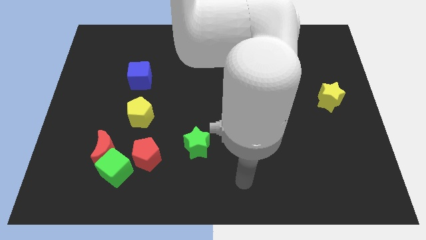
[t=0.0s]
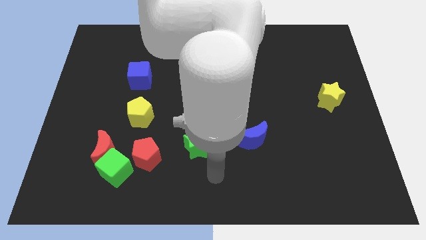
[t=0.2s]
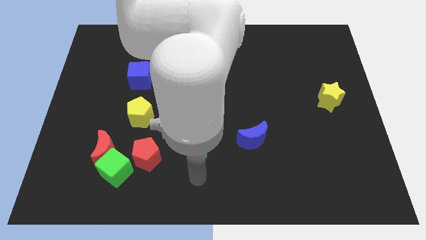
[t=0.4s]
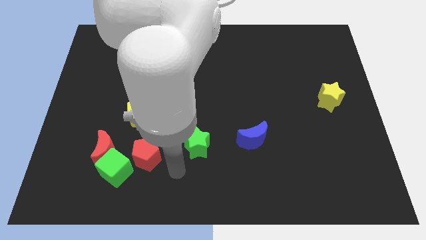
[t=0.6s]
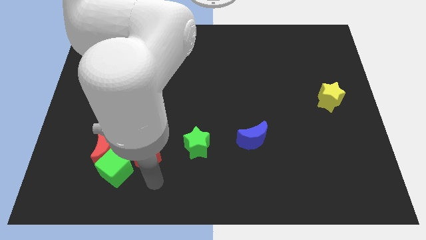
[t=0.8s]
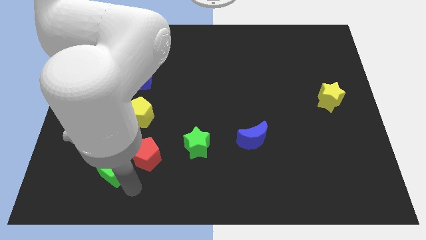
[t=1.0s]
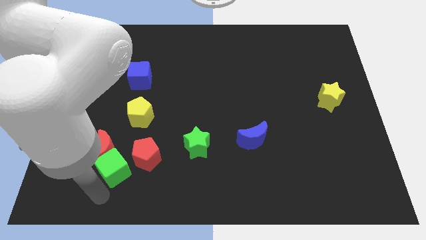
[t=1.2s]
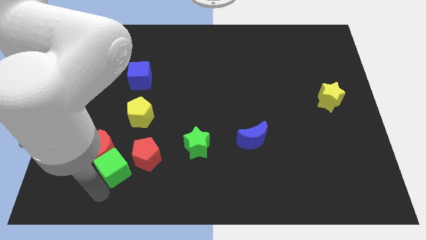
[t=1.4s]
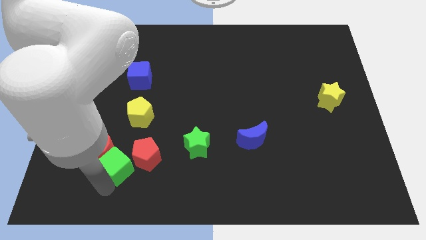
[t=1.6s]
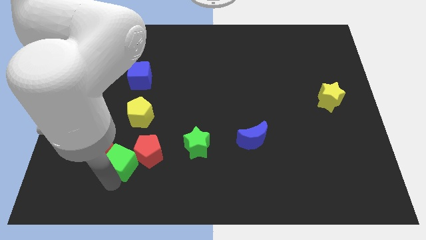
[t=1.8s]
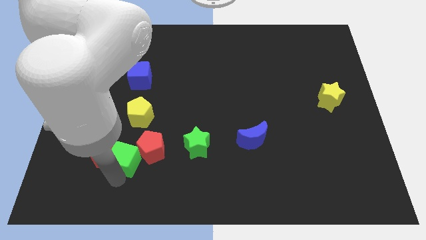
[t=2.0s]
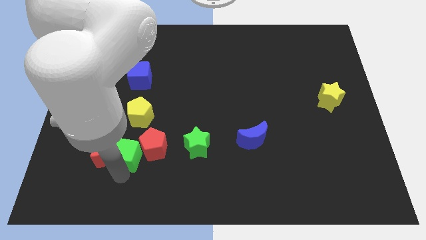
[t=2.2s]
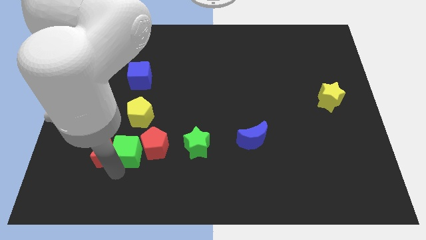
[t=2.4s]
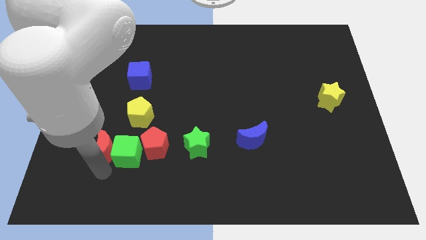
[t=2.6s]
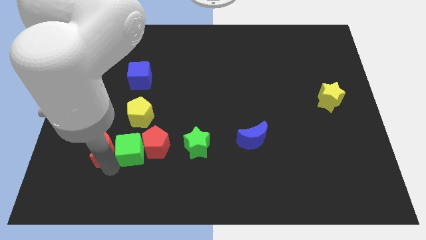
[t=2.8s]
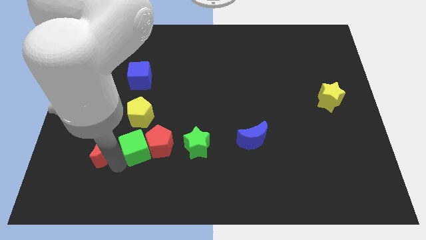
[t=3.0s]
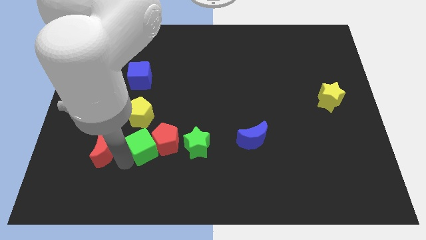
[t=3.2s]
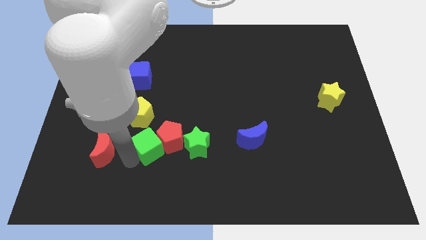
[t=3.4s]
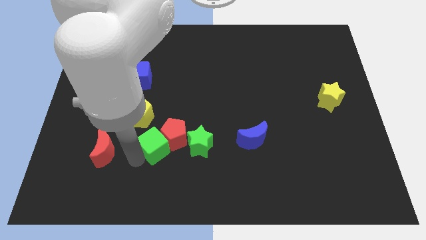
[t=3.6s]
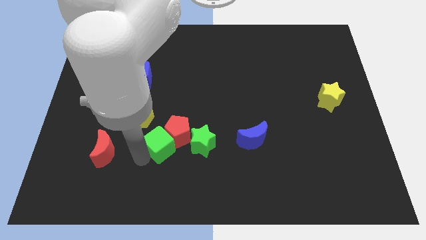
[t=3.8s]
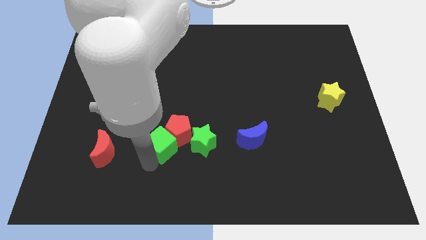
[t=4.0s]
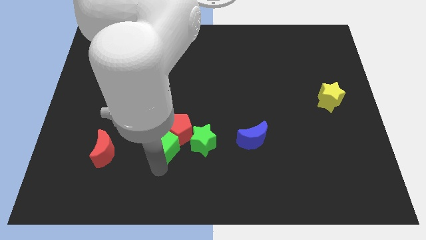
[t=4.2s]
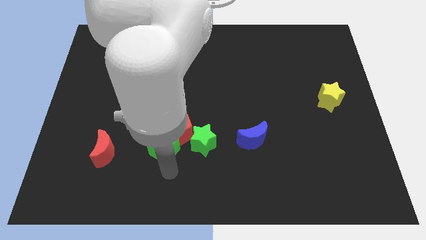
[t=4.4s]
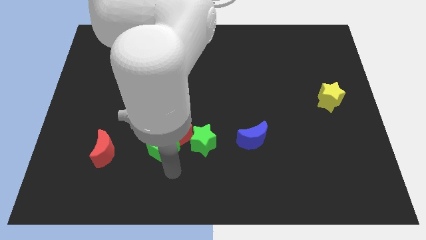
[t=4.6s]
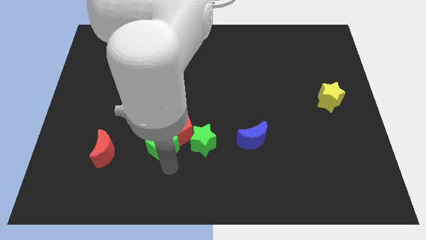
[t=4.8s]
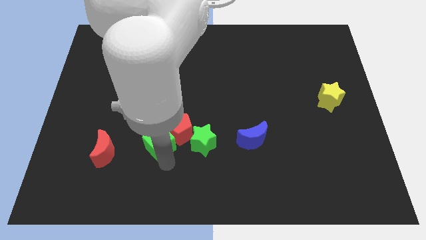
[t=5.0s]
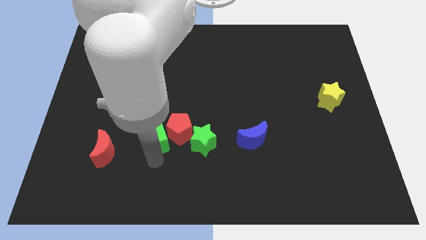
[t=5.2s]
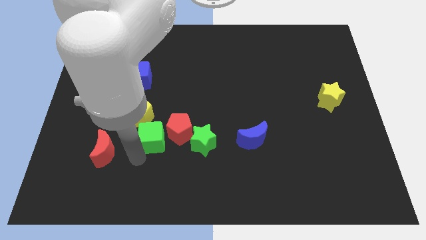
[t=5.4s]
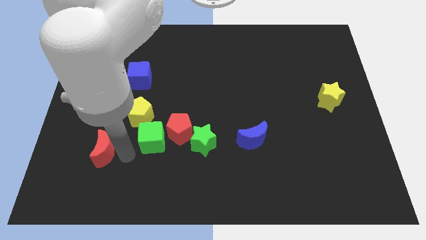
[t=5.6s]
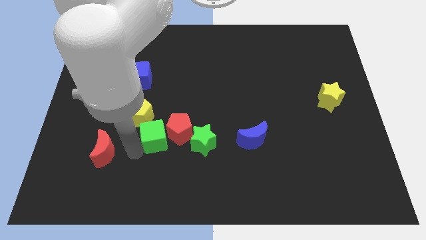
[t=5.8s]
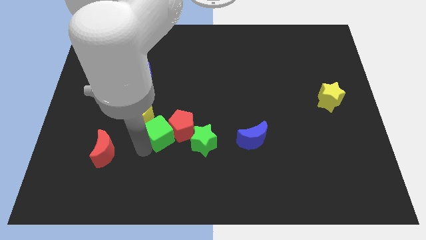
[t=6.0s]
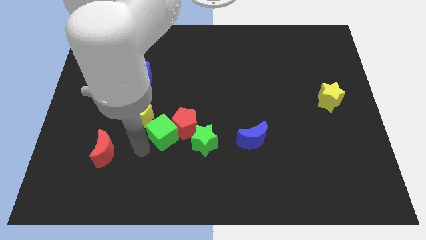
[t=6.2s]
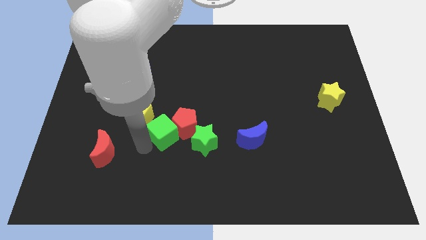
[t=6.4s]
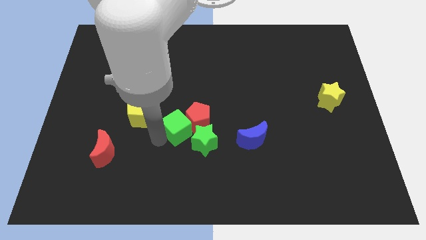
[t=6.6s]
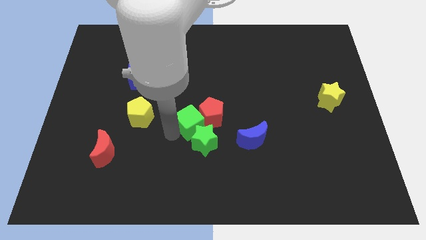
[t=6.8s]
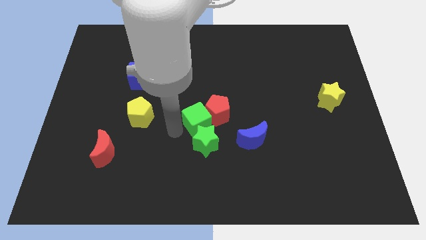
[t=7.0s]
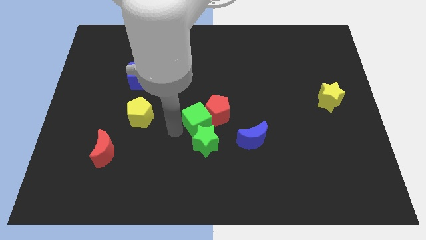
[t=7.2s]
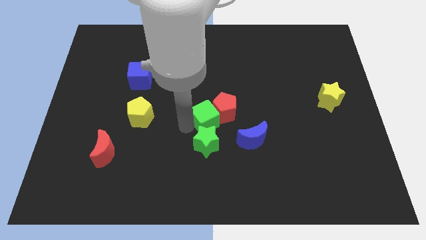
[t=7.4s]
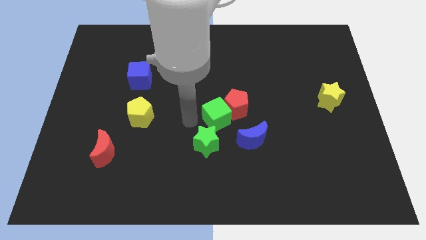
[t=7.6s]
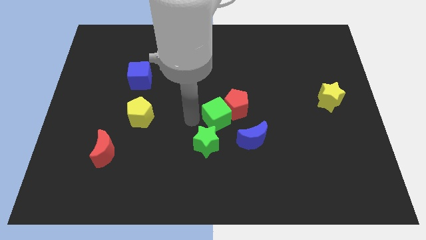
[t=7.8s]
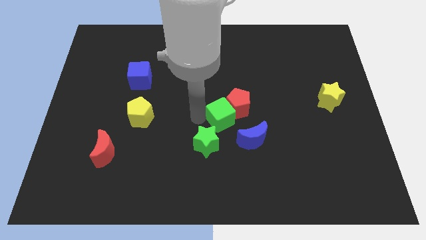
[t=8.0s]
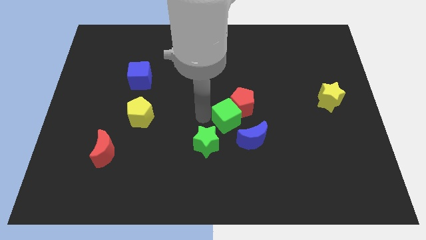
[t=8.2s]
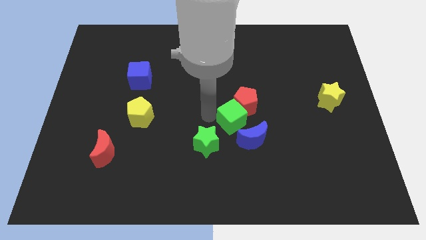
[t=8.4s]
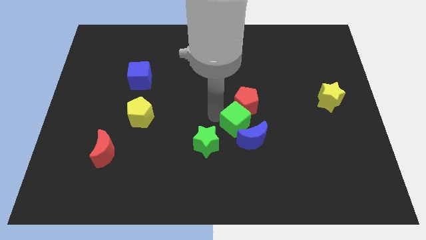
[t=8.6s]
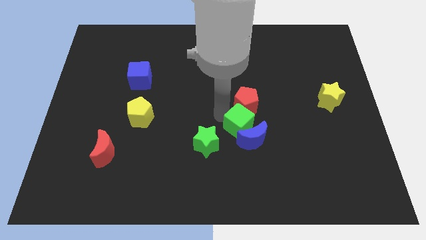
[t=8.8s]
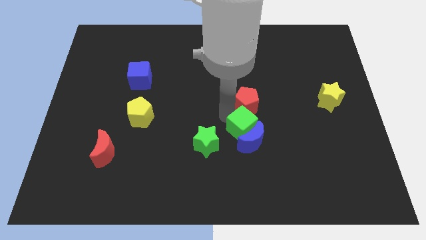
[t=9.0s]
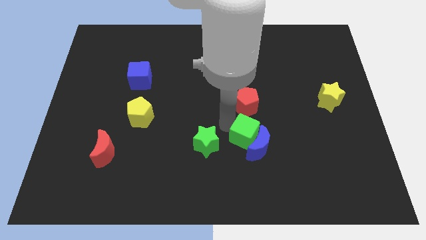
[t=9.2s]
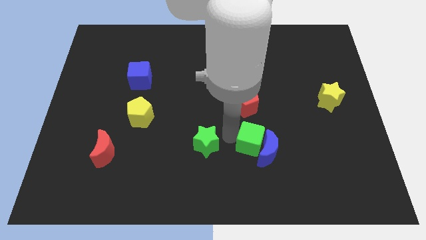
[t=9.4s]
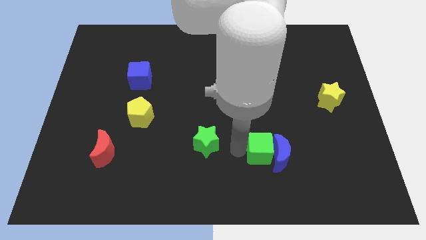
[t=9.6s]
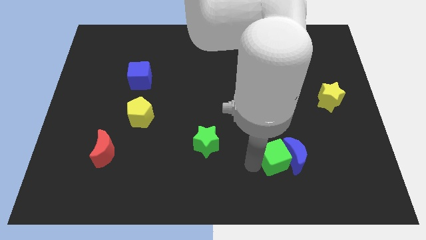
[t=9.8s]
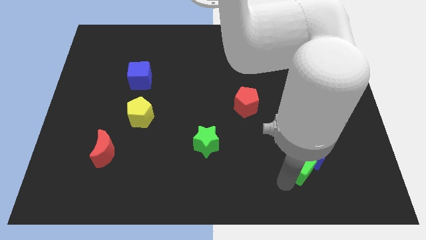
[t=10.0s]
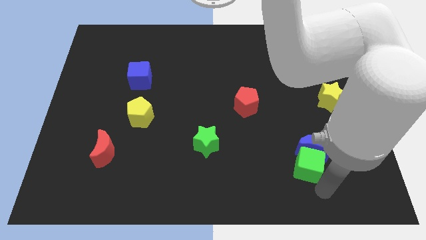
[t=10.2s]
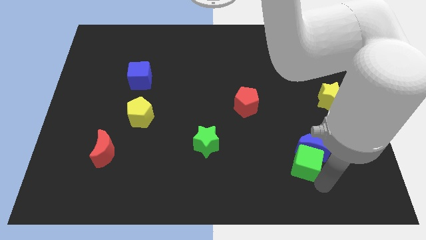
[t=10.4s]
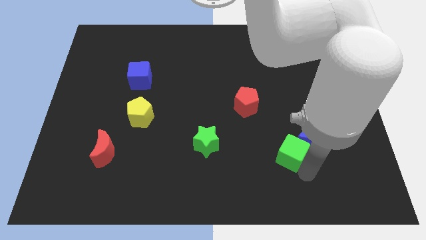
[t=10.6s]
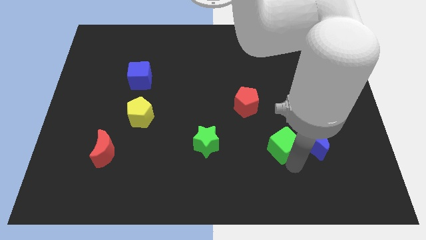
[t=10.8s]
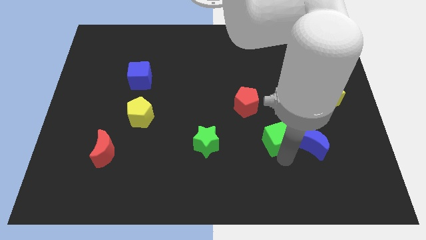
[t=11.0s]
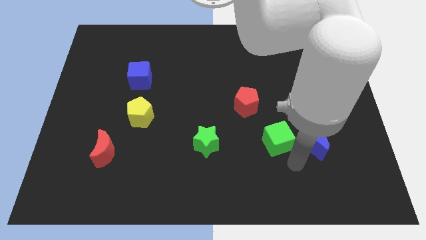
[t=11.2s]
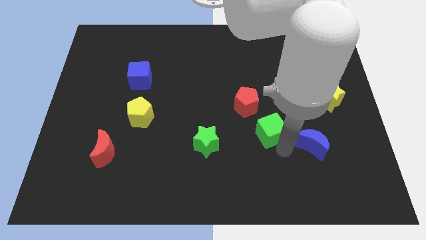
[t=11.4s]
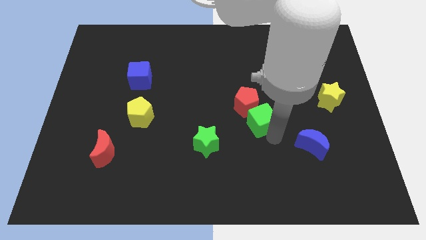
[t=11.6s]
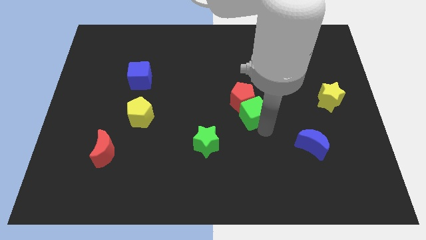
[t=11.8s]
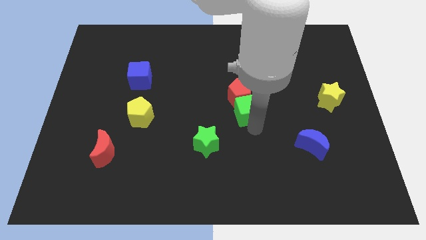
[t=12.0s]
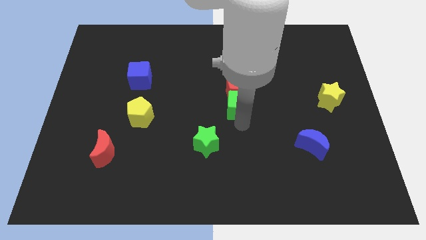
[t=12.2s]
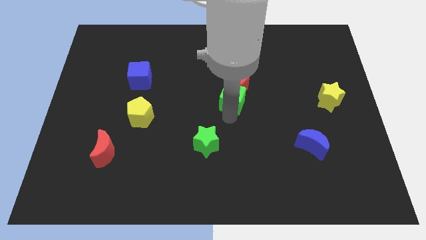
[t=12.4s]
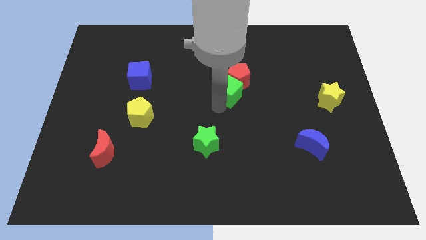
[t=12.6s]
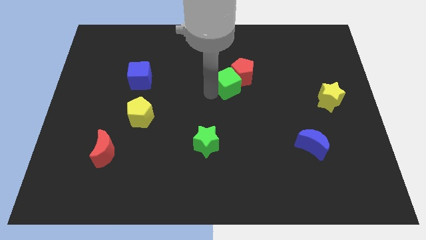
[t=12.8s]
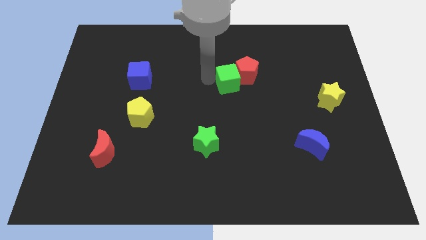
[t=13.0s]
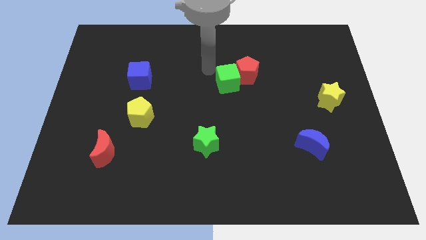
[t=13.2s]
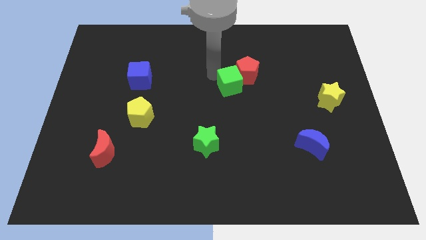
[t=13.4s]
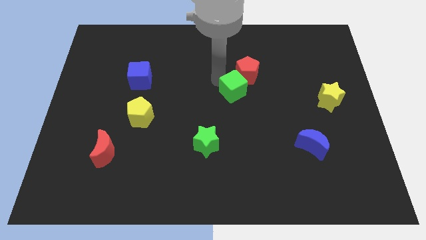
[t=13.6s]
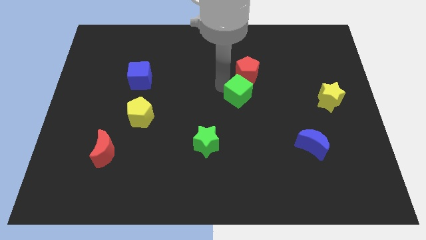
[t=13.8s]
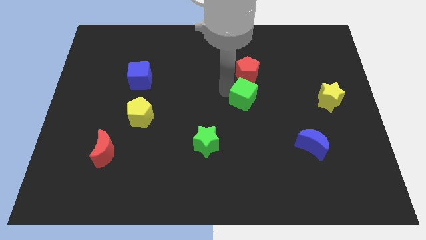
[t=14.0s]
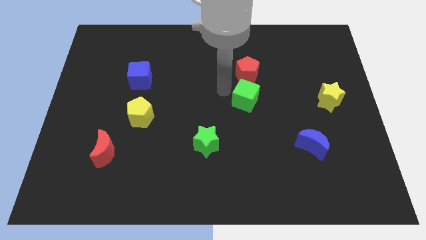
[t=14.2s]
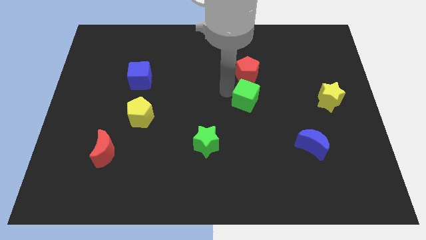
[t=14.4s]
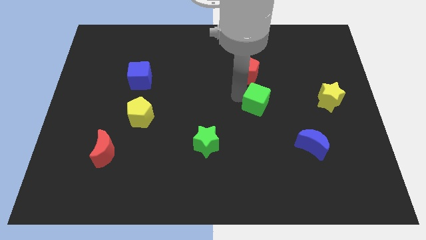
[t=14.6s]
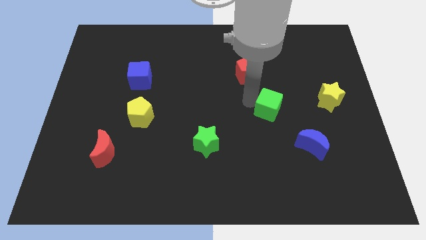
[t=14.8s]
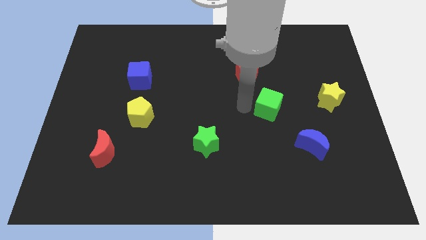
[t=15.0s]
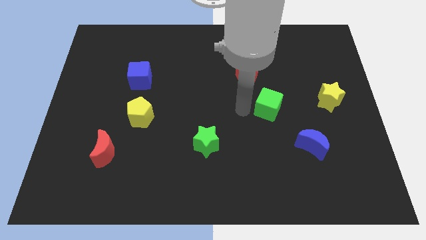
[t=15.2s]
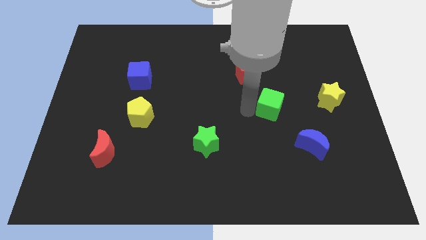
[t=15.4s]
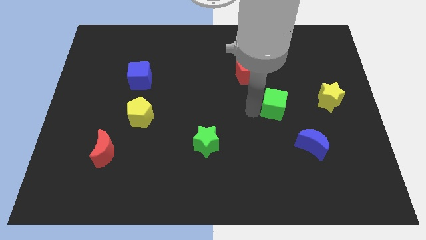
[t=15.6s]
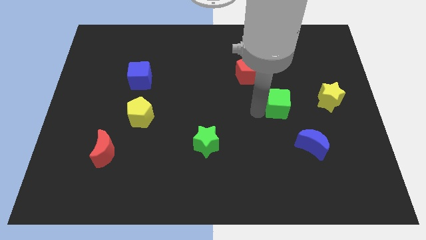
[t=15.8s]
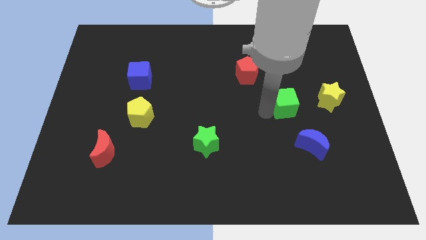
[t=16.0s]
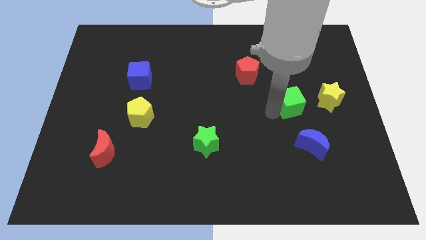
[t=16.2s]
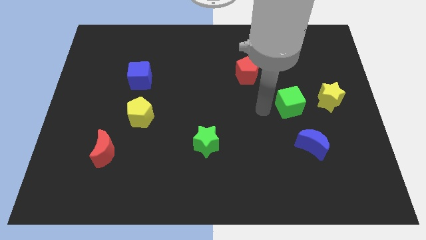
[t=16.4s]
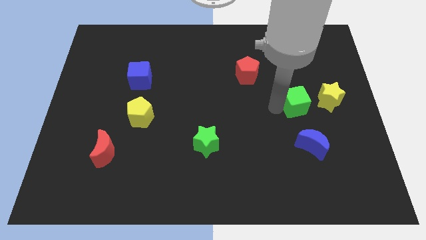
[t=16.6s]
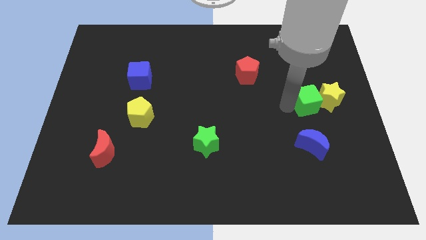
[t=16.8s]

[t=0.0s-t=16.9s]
push the green cube towards the yellow star
